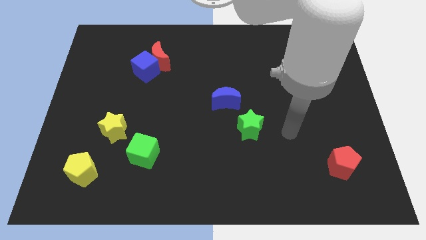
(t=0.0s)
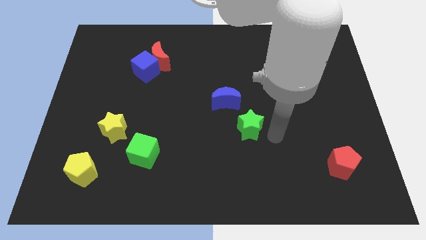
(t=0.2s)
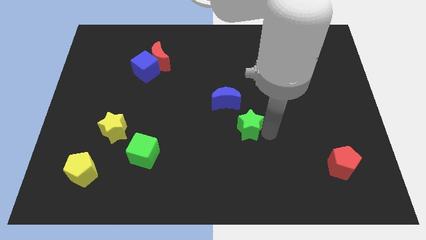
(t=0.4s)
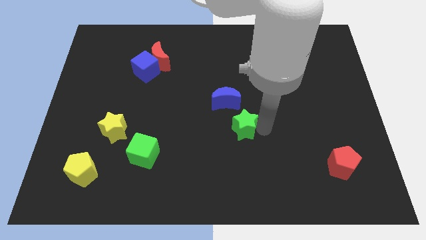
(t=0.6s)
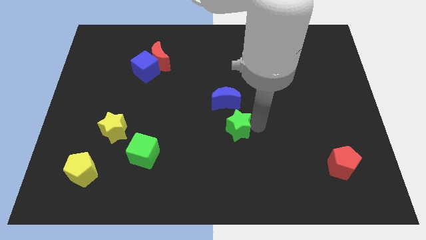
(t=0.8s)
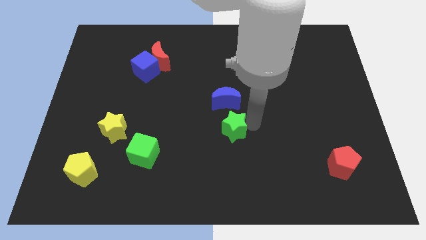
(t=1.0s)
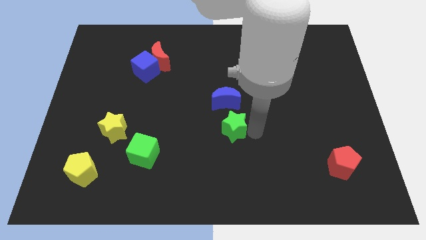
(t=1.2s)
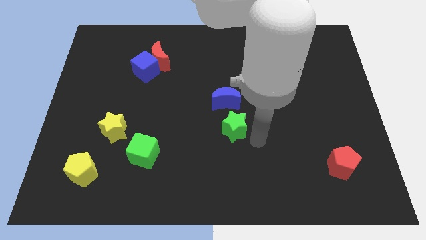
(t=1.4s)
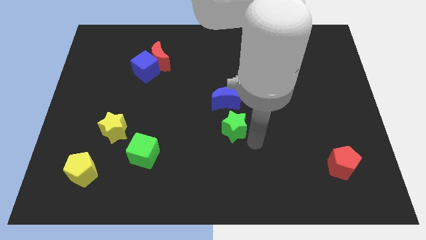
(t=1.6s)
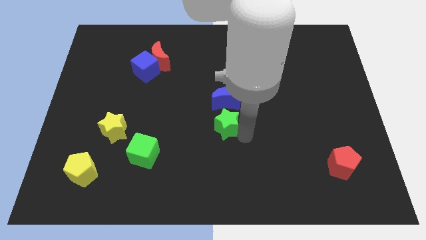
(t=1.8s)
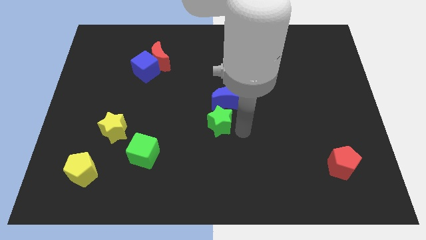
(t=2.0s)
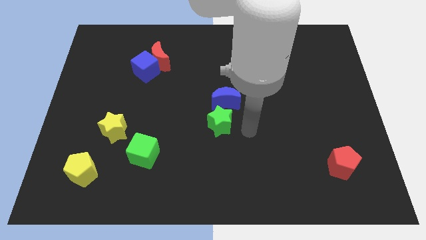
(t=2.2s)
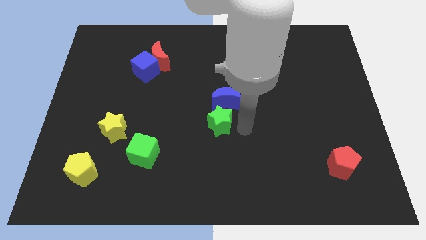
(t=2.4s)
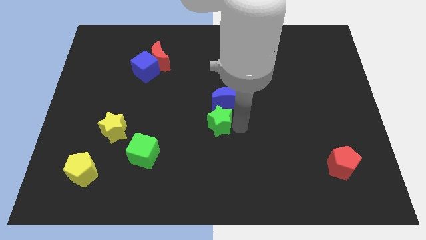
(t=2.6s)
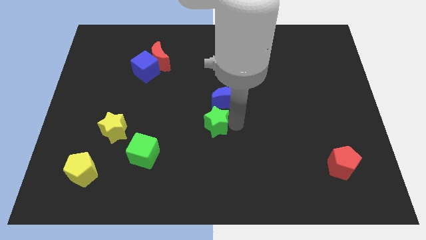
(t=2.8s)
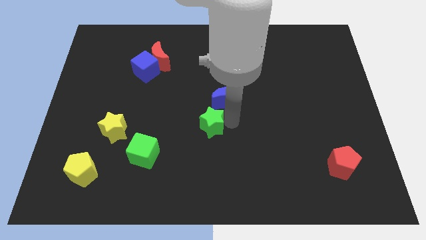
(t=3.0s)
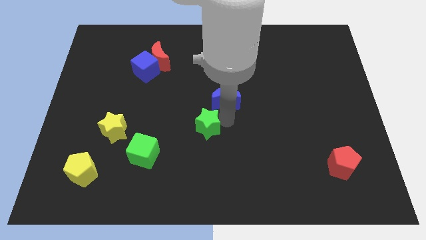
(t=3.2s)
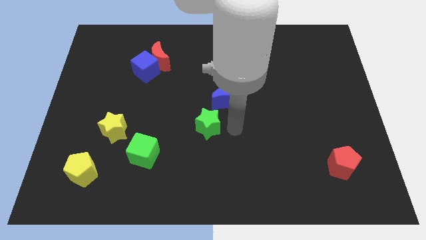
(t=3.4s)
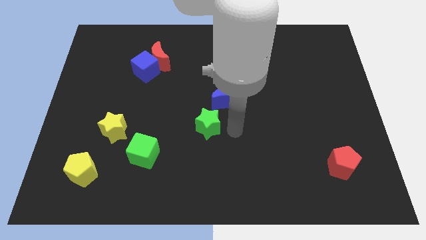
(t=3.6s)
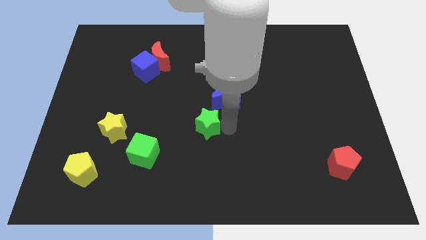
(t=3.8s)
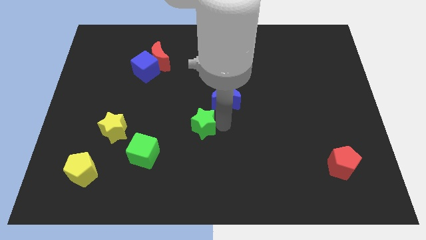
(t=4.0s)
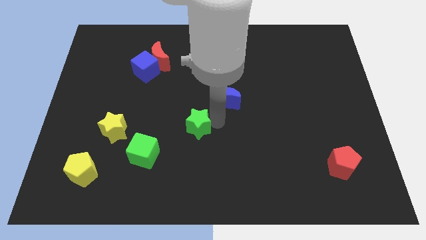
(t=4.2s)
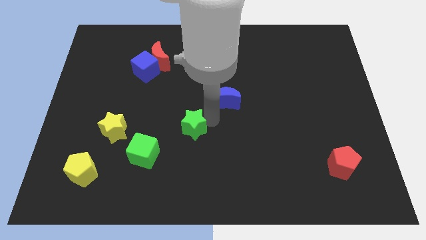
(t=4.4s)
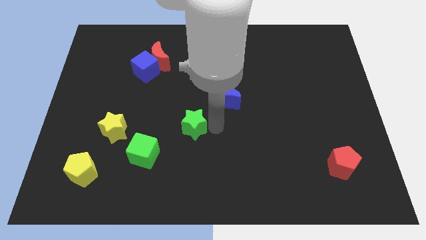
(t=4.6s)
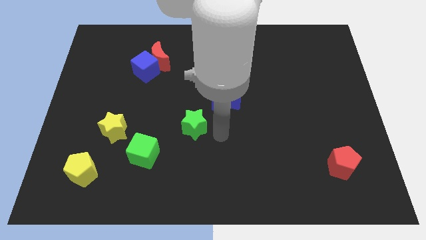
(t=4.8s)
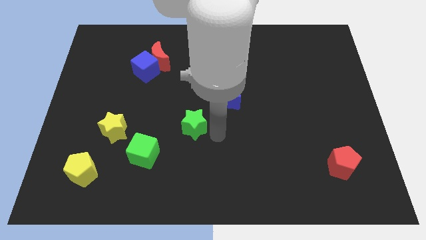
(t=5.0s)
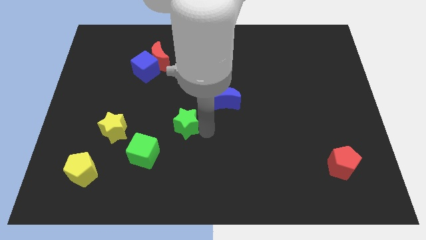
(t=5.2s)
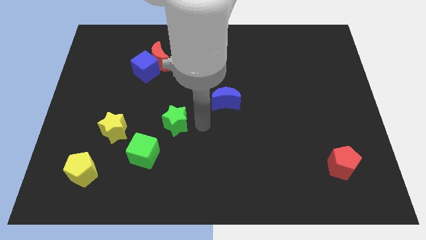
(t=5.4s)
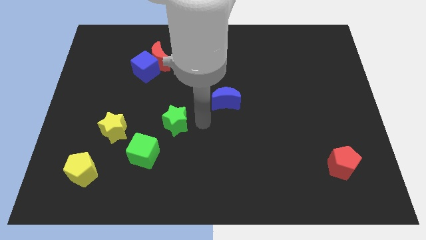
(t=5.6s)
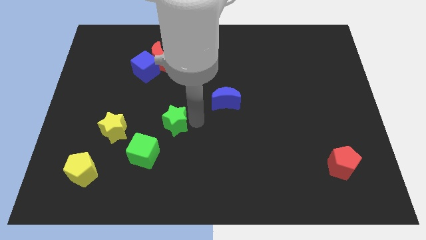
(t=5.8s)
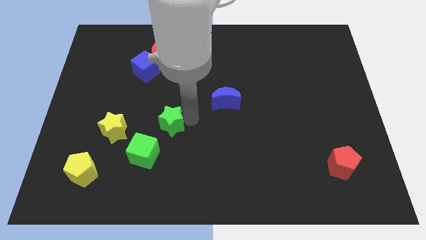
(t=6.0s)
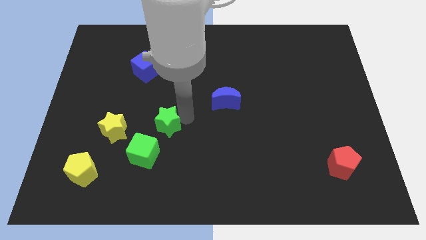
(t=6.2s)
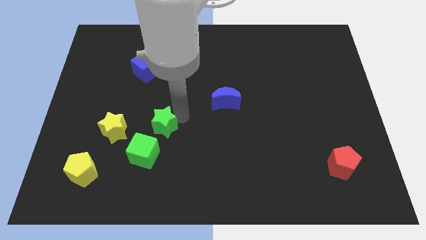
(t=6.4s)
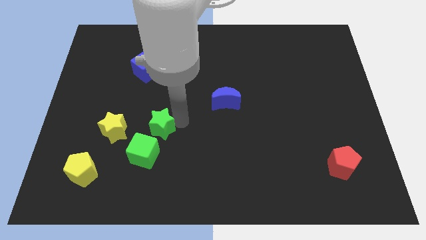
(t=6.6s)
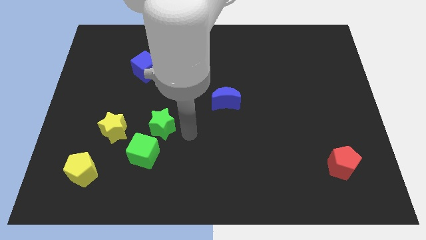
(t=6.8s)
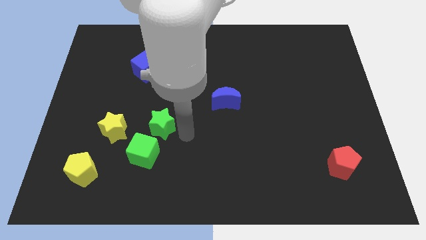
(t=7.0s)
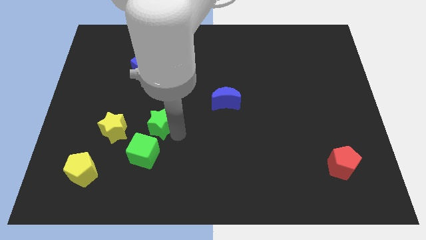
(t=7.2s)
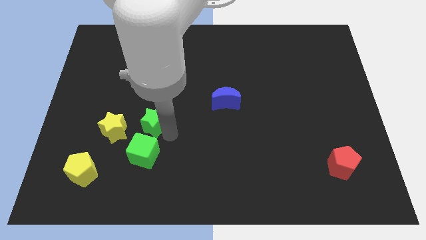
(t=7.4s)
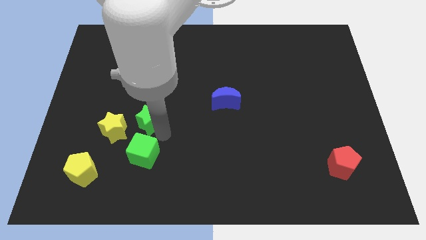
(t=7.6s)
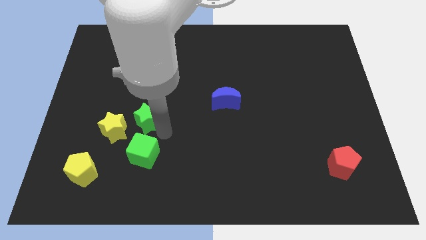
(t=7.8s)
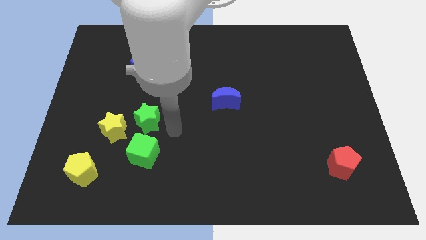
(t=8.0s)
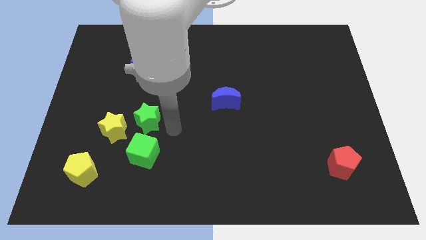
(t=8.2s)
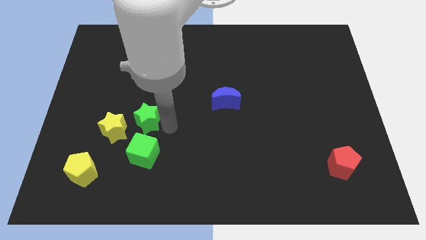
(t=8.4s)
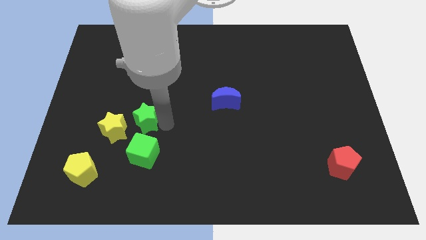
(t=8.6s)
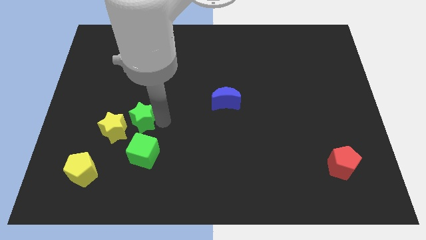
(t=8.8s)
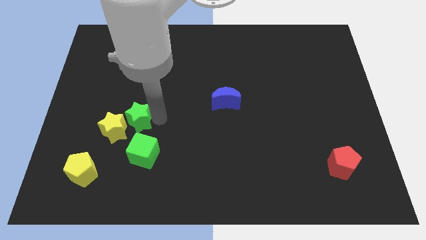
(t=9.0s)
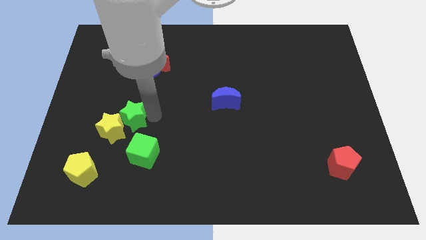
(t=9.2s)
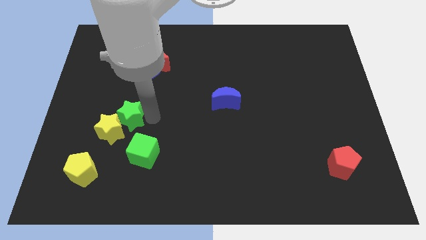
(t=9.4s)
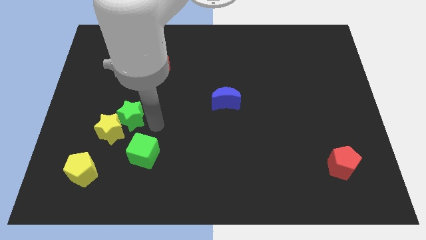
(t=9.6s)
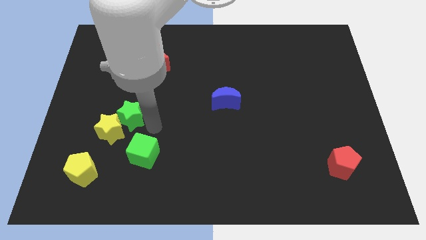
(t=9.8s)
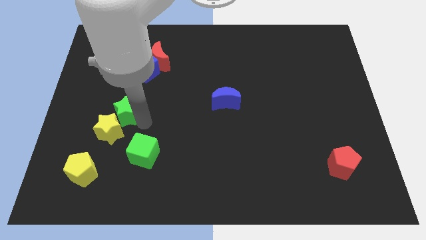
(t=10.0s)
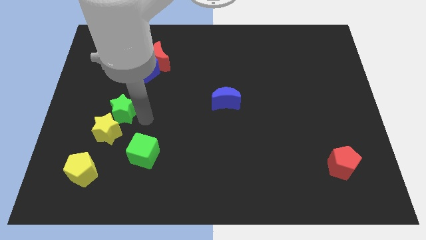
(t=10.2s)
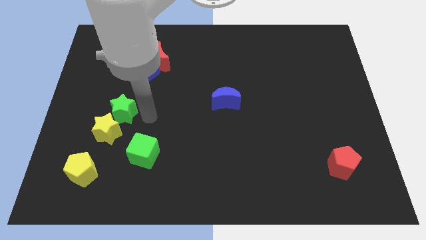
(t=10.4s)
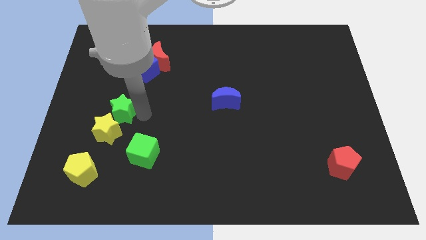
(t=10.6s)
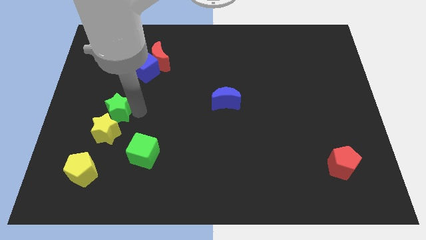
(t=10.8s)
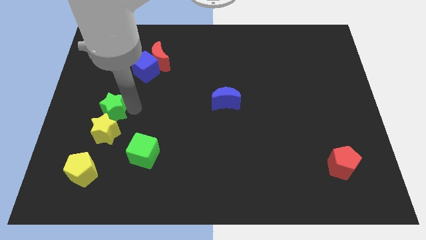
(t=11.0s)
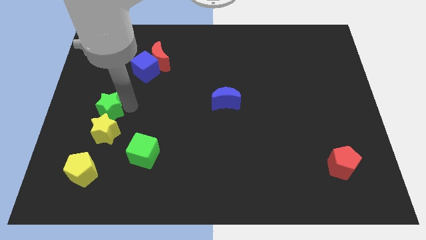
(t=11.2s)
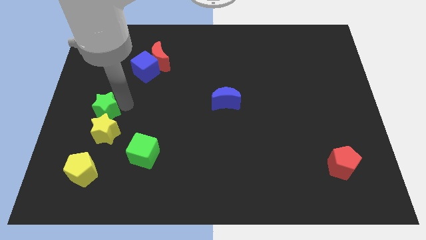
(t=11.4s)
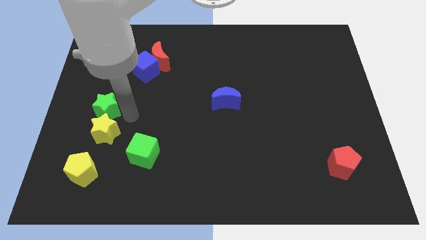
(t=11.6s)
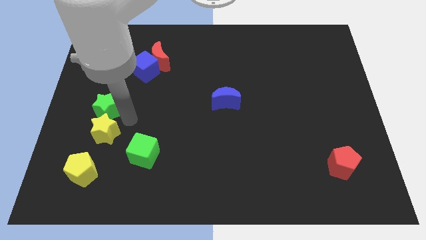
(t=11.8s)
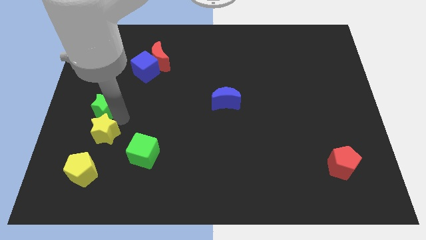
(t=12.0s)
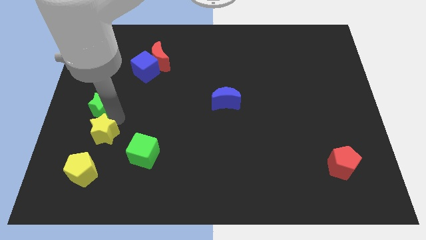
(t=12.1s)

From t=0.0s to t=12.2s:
put the green star to the center left
